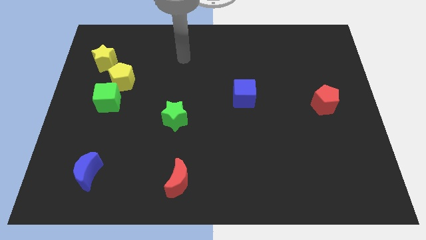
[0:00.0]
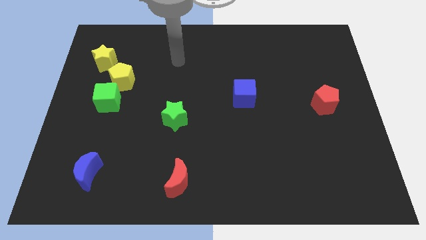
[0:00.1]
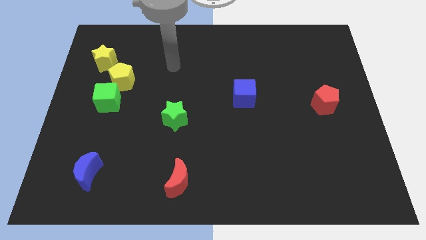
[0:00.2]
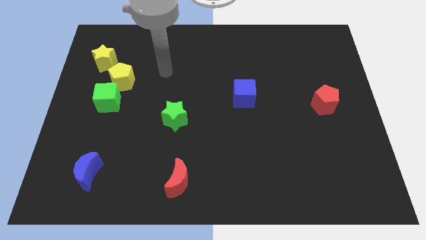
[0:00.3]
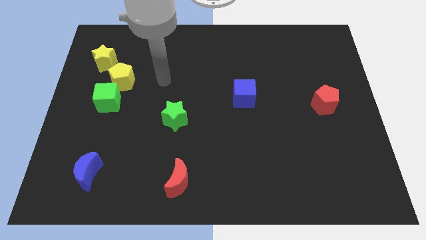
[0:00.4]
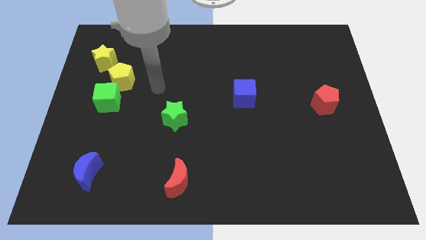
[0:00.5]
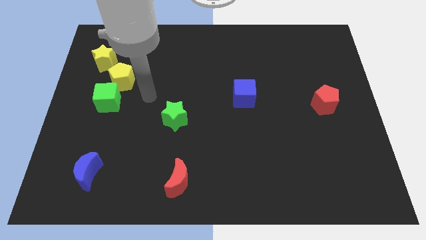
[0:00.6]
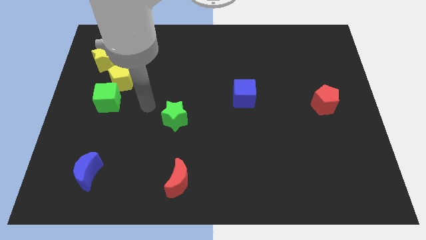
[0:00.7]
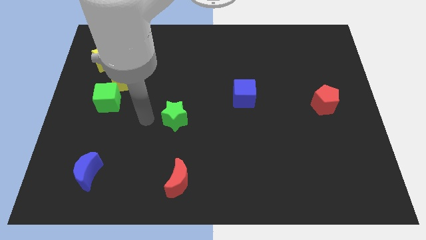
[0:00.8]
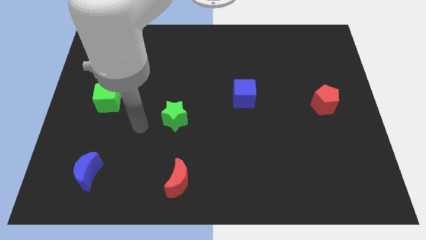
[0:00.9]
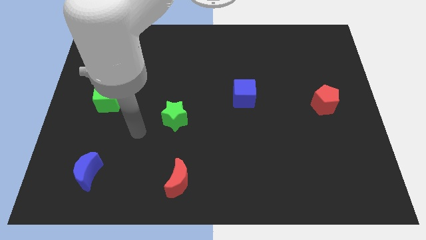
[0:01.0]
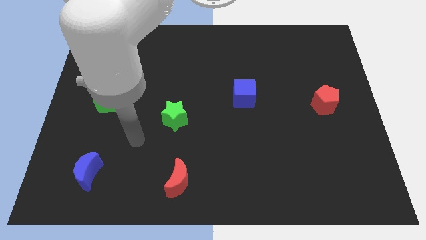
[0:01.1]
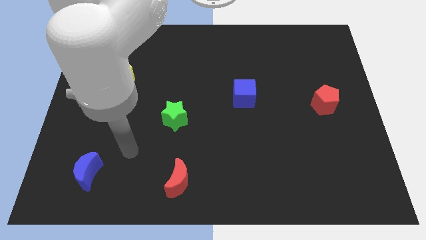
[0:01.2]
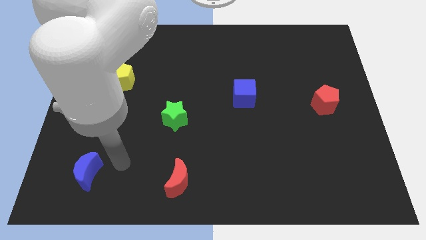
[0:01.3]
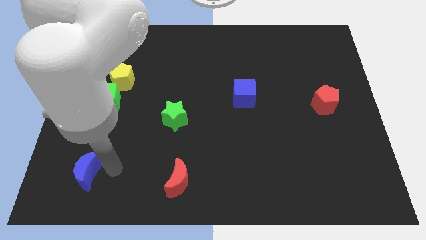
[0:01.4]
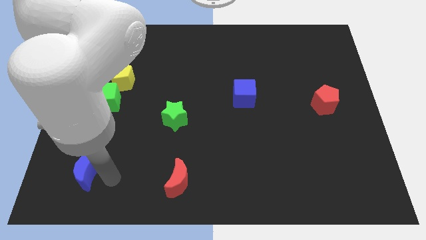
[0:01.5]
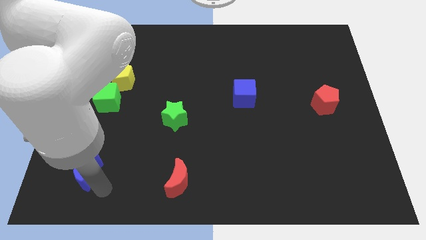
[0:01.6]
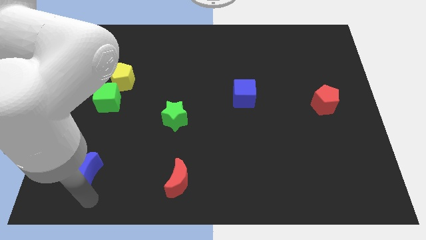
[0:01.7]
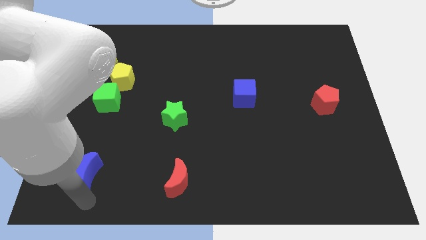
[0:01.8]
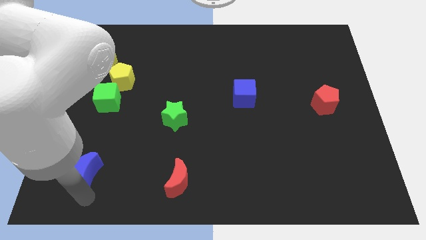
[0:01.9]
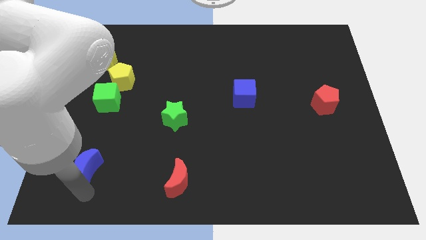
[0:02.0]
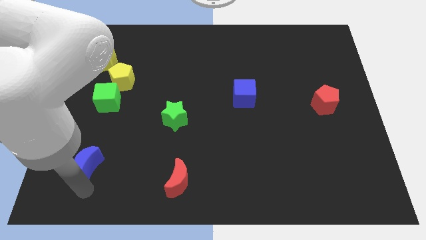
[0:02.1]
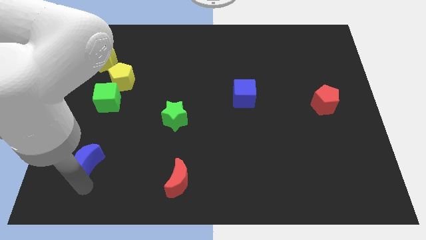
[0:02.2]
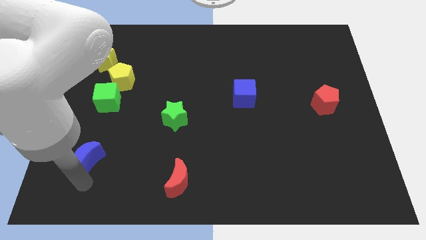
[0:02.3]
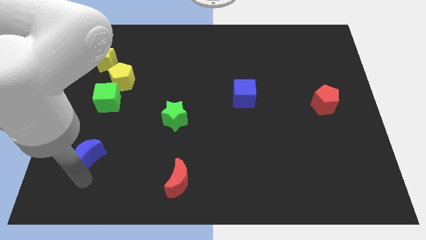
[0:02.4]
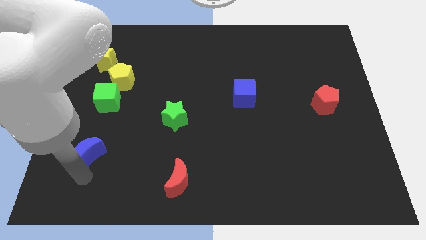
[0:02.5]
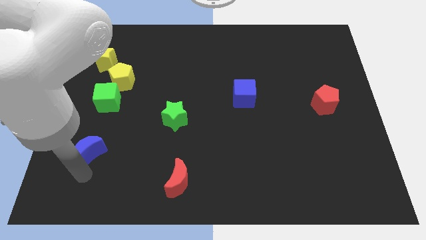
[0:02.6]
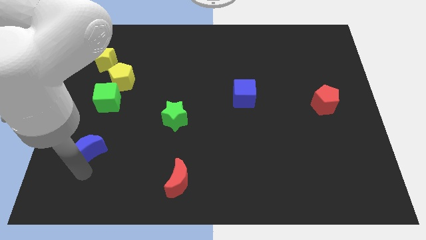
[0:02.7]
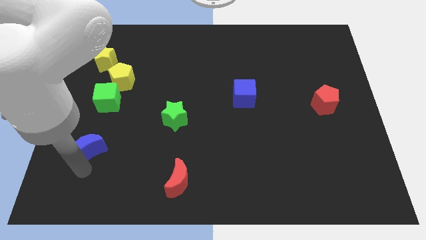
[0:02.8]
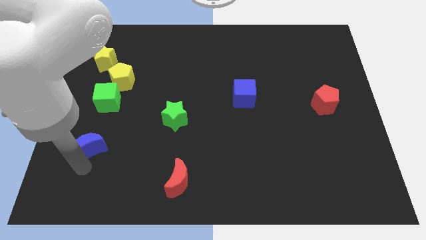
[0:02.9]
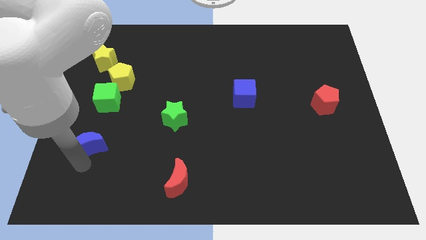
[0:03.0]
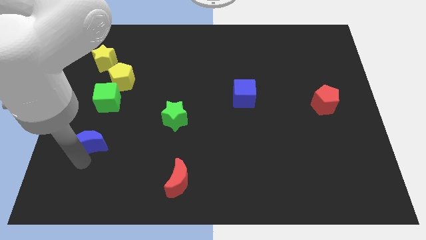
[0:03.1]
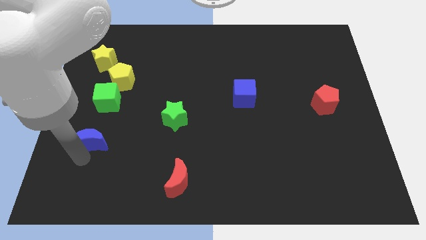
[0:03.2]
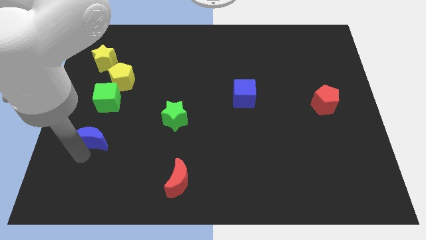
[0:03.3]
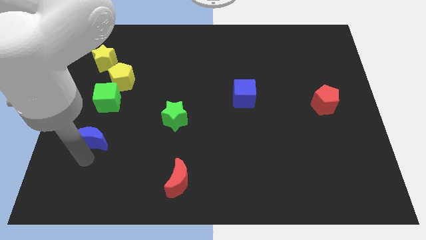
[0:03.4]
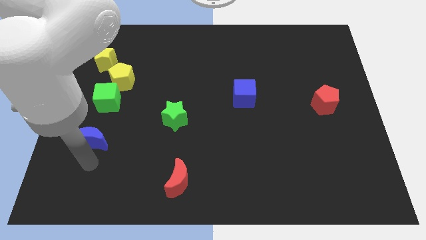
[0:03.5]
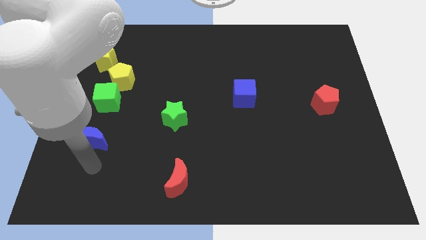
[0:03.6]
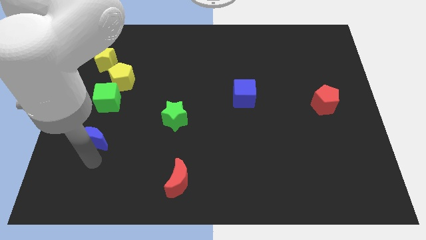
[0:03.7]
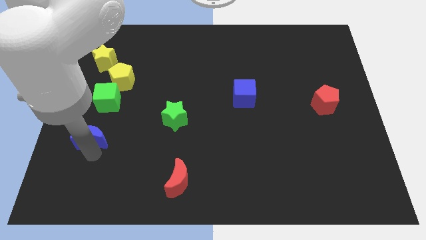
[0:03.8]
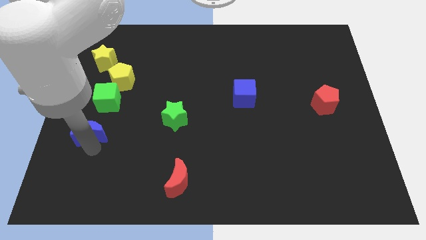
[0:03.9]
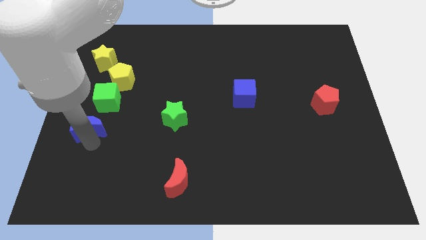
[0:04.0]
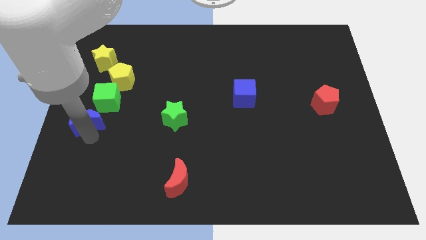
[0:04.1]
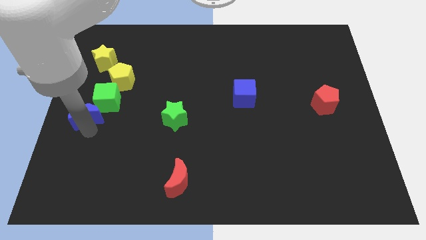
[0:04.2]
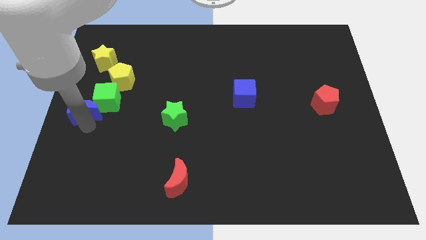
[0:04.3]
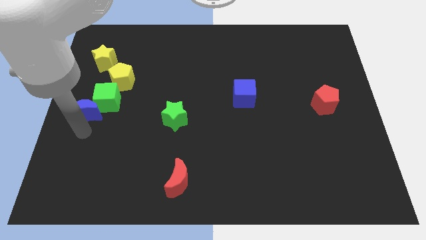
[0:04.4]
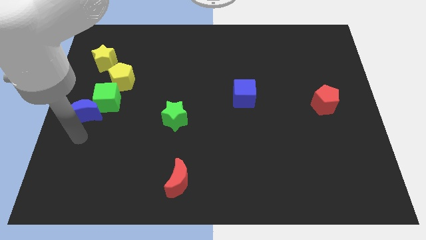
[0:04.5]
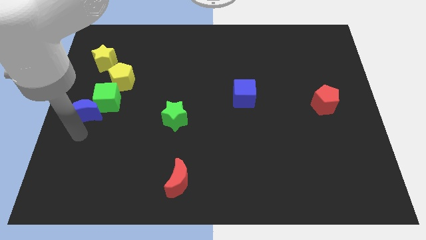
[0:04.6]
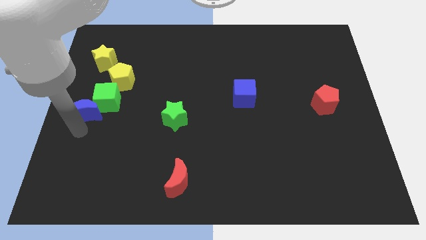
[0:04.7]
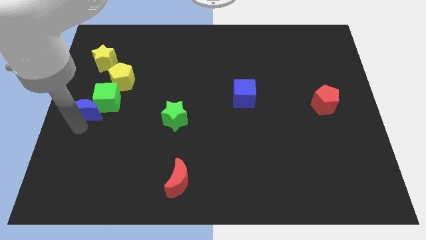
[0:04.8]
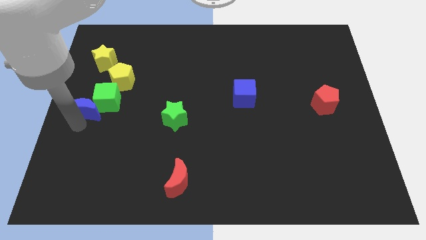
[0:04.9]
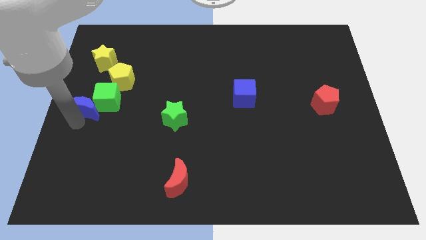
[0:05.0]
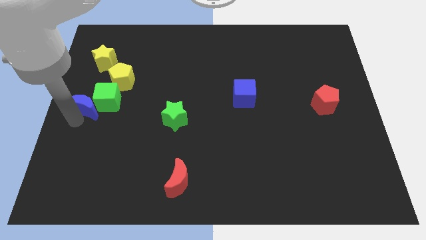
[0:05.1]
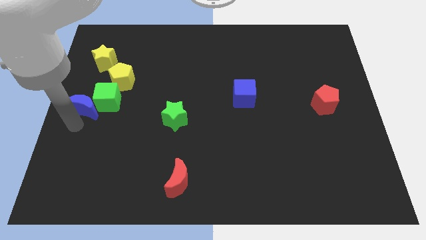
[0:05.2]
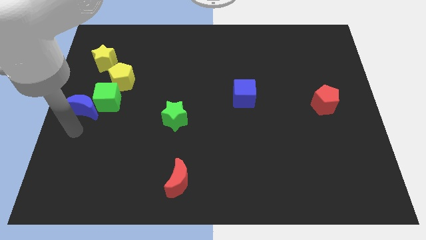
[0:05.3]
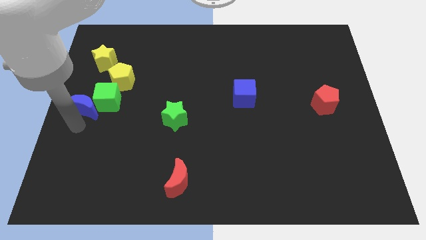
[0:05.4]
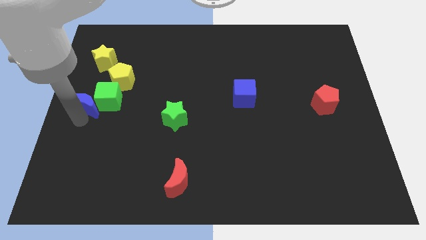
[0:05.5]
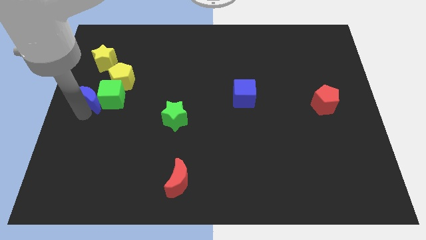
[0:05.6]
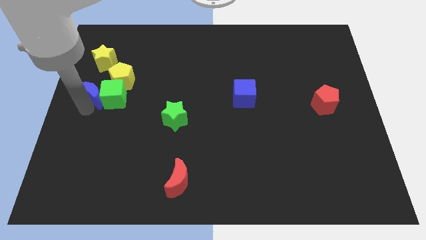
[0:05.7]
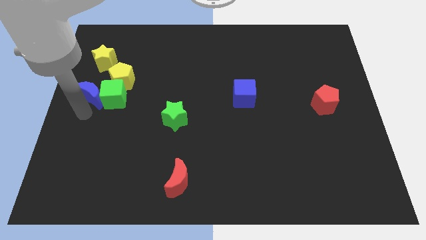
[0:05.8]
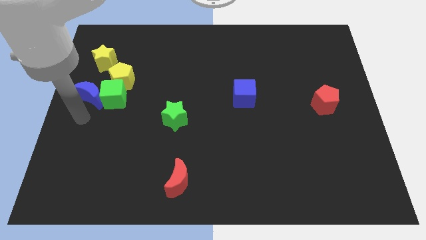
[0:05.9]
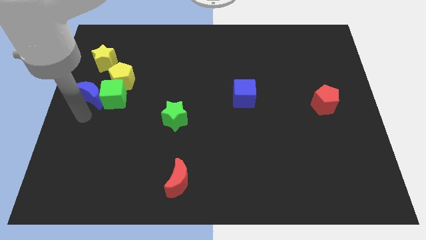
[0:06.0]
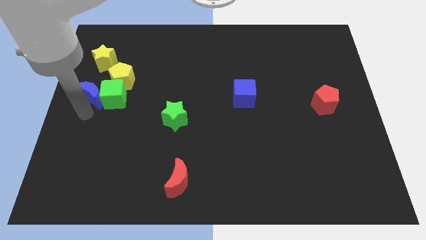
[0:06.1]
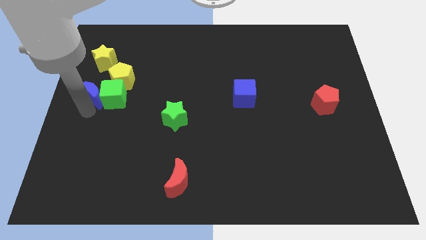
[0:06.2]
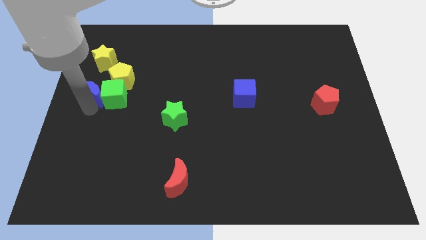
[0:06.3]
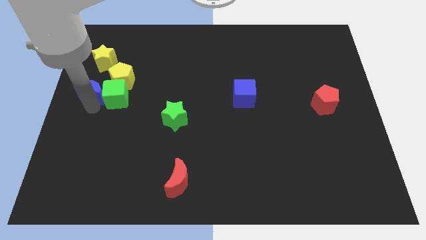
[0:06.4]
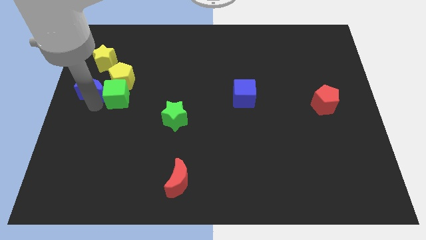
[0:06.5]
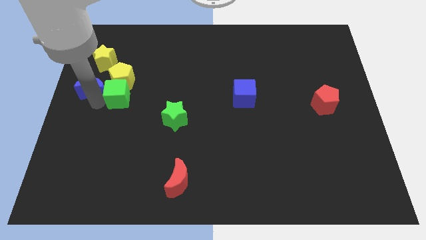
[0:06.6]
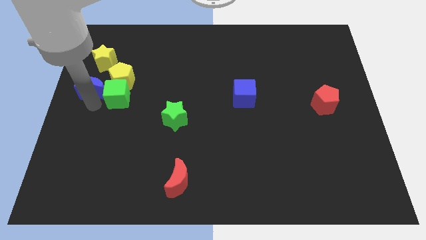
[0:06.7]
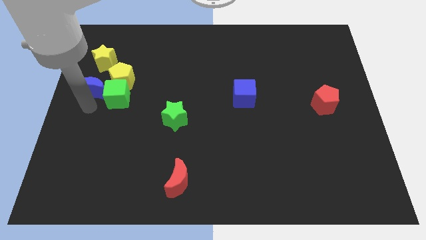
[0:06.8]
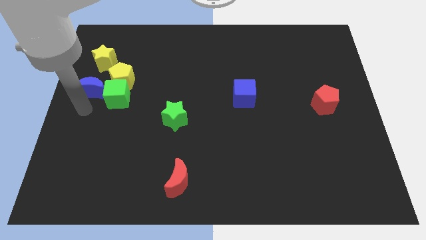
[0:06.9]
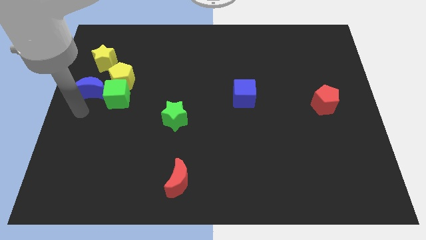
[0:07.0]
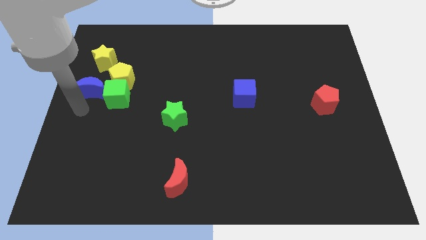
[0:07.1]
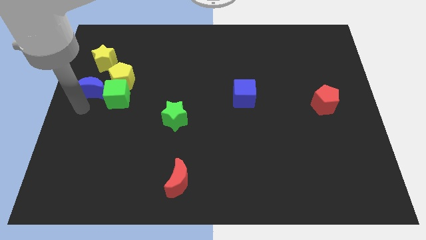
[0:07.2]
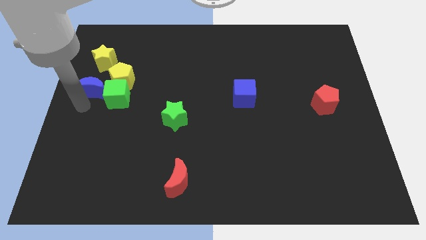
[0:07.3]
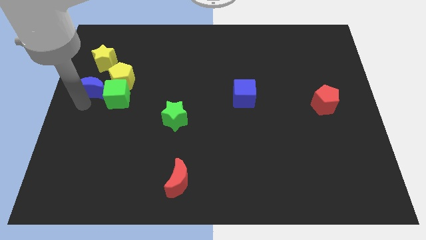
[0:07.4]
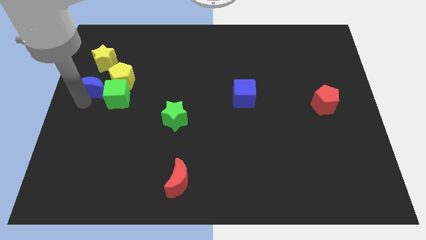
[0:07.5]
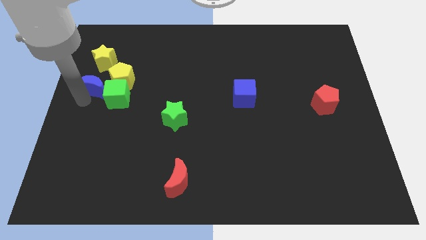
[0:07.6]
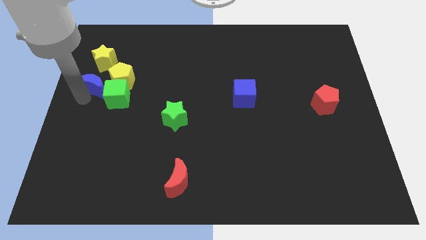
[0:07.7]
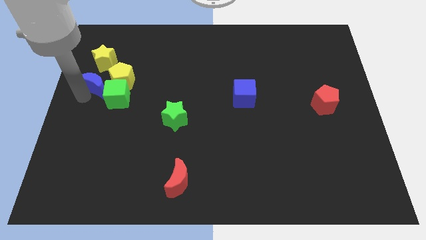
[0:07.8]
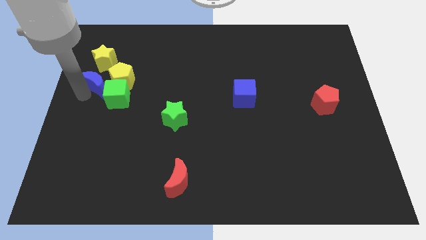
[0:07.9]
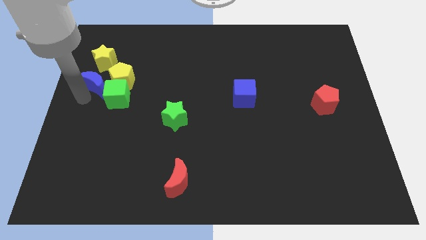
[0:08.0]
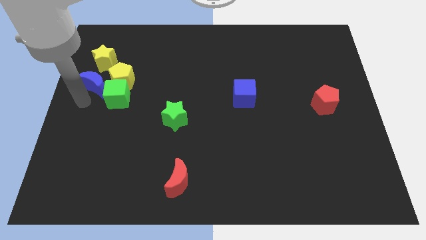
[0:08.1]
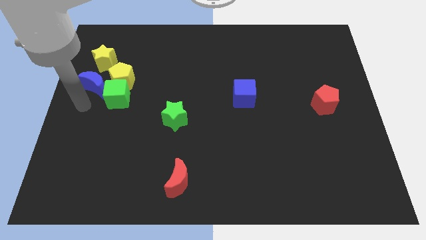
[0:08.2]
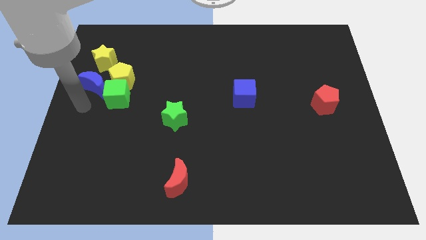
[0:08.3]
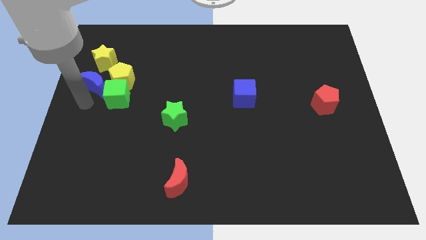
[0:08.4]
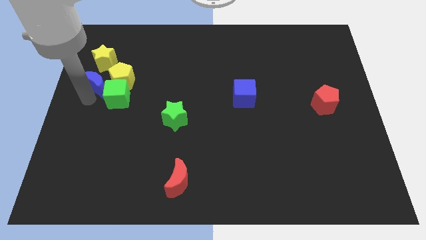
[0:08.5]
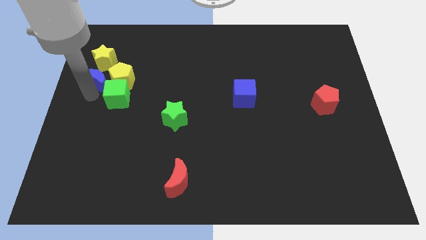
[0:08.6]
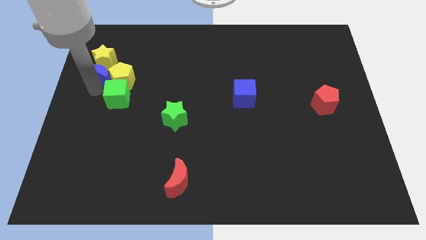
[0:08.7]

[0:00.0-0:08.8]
move the blue moon close to the yellow star
